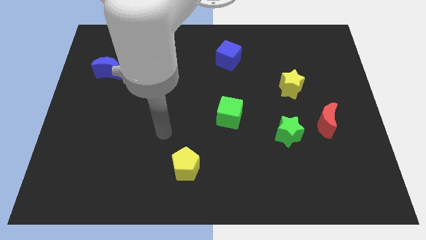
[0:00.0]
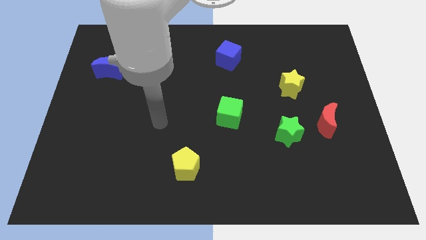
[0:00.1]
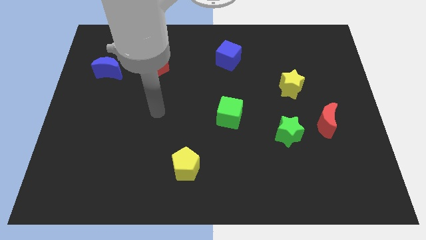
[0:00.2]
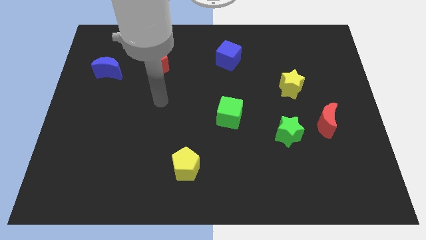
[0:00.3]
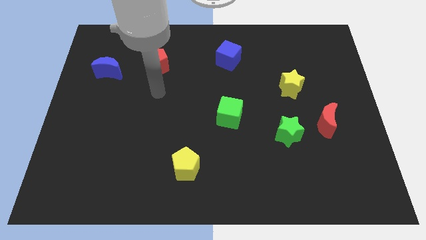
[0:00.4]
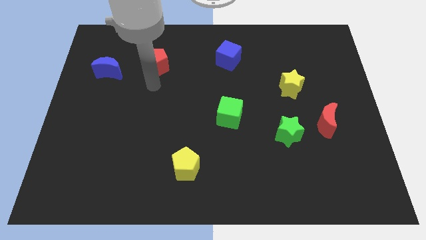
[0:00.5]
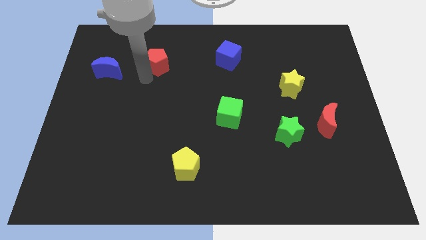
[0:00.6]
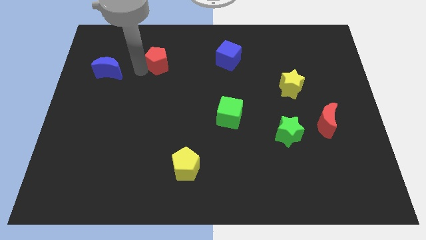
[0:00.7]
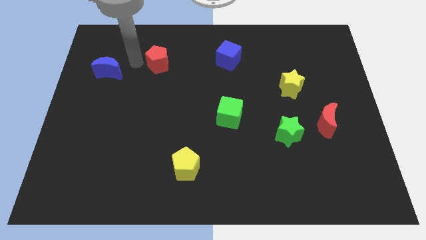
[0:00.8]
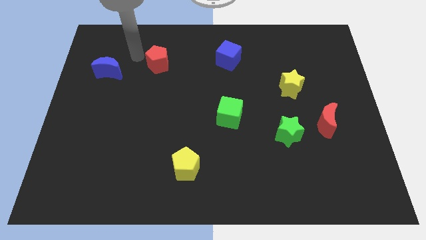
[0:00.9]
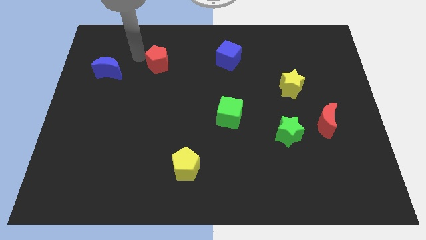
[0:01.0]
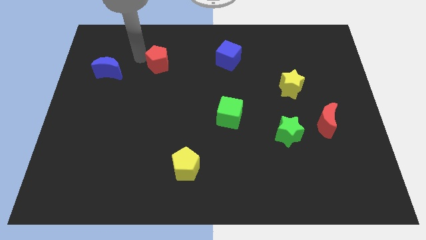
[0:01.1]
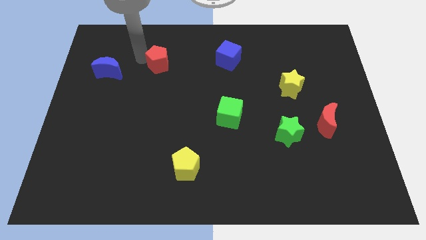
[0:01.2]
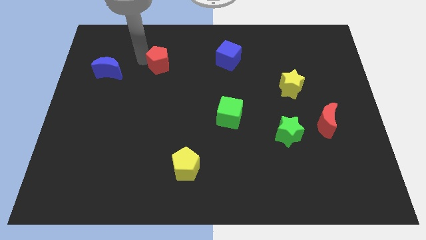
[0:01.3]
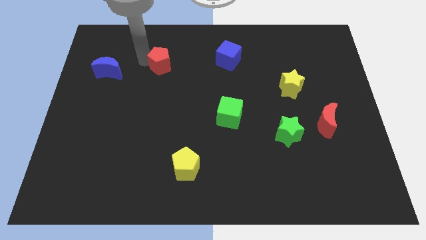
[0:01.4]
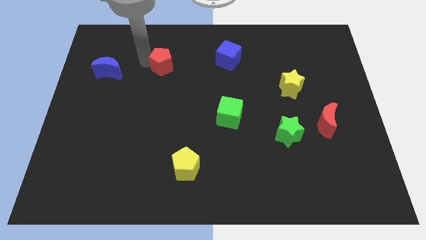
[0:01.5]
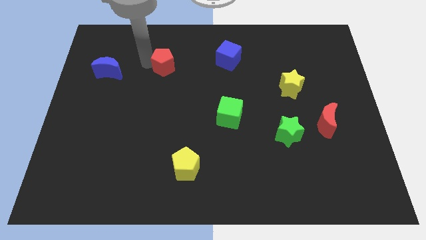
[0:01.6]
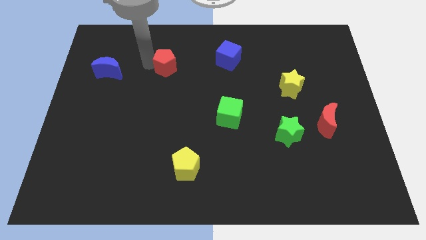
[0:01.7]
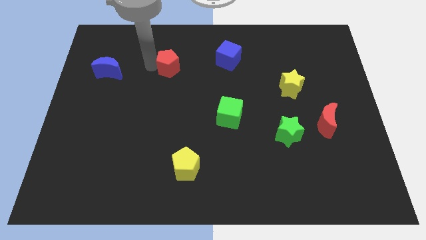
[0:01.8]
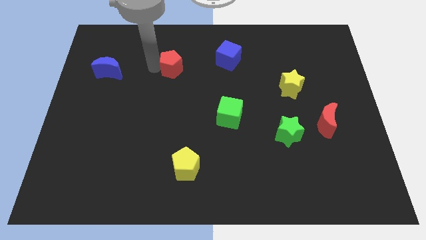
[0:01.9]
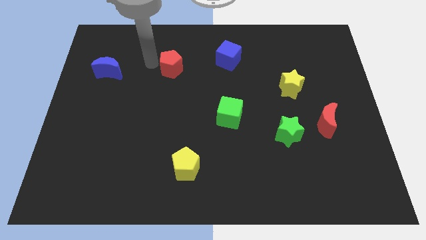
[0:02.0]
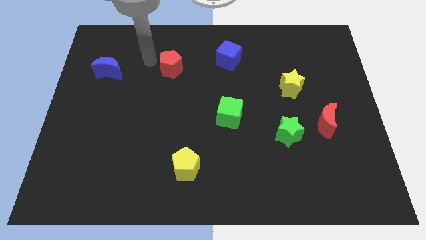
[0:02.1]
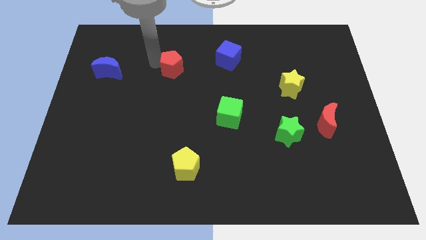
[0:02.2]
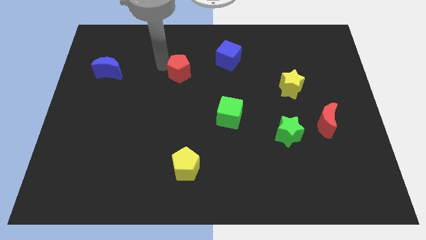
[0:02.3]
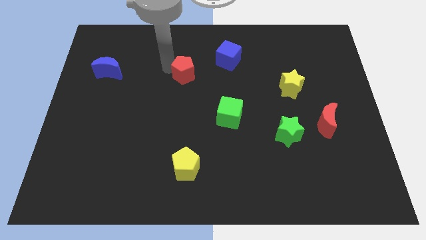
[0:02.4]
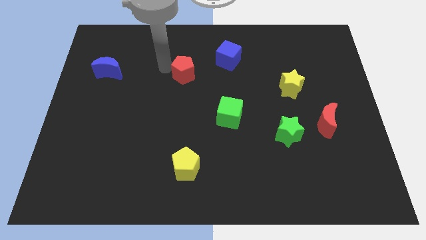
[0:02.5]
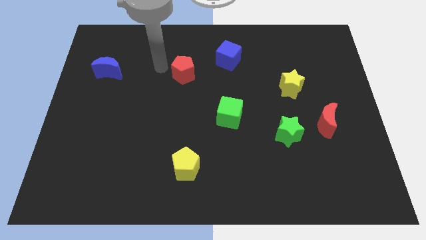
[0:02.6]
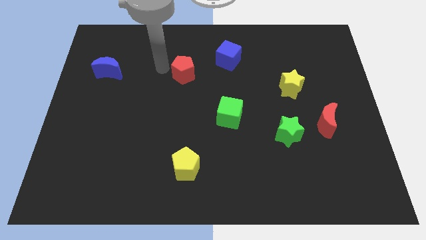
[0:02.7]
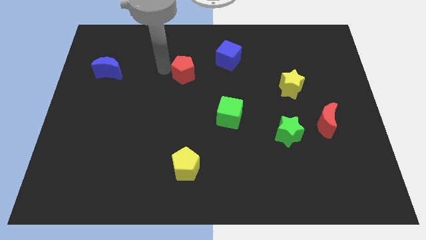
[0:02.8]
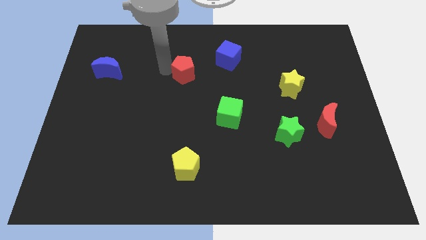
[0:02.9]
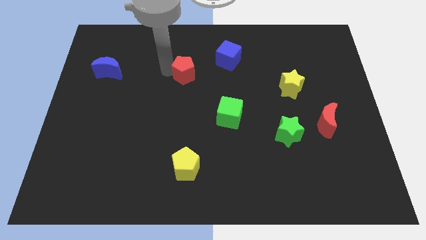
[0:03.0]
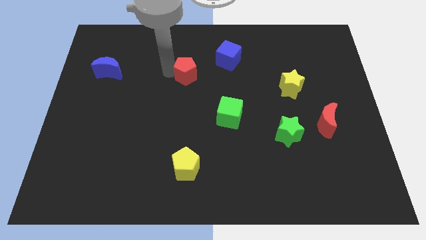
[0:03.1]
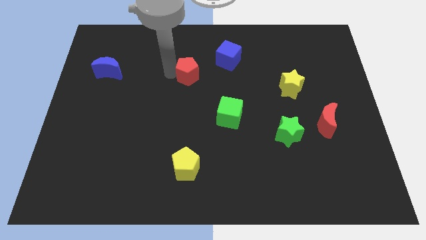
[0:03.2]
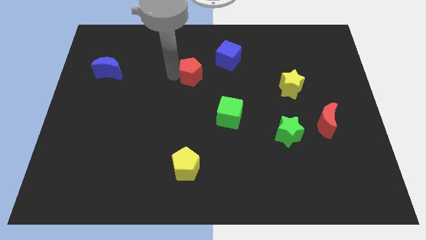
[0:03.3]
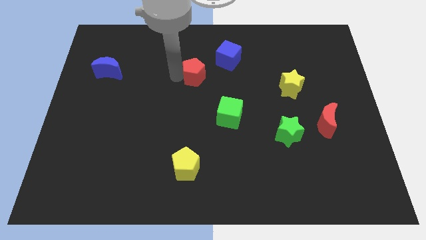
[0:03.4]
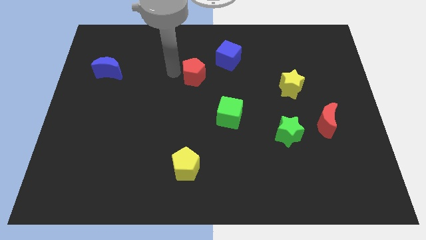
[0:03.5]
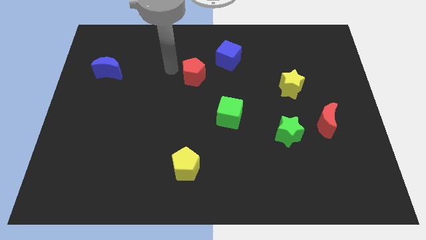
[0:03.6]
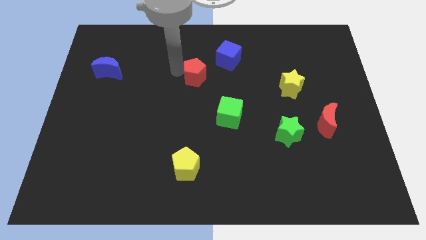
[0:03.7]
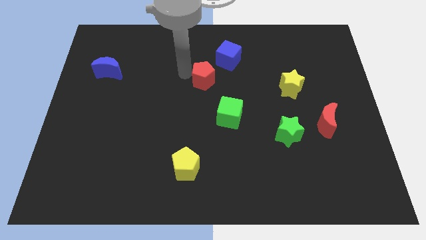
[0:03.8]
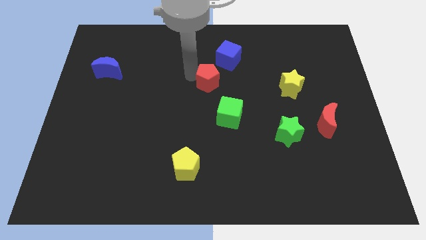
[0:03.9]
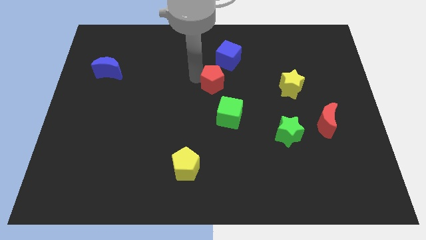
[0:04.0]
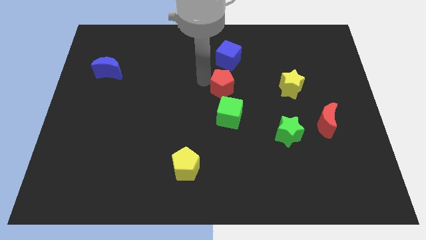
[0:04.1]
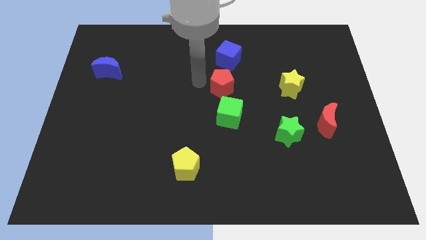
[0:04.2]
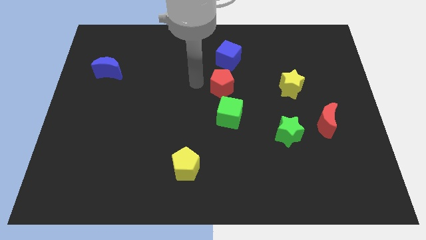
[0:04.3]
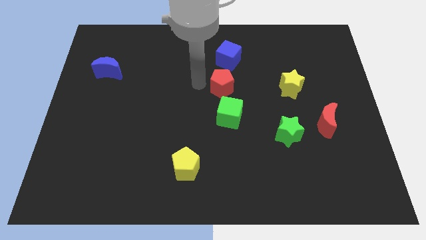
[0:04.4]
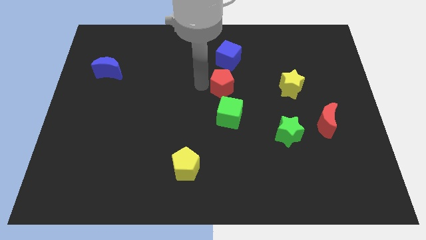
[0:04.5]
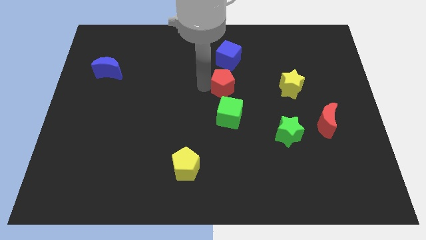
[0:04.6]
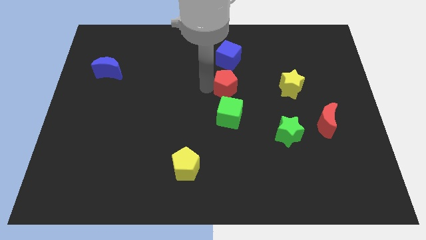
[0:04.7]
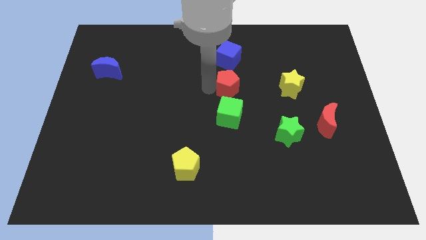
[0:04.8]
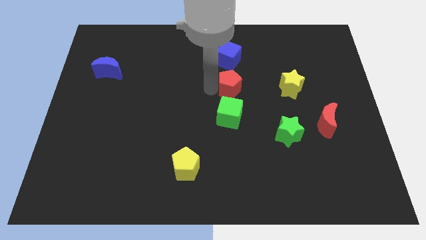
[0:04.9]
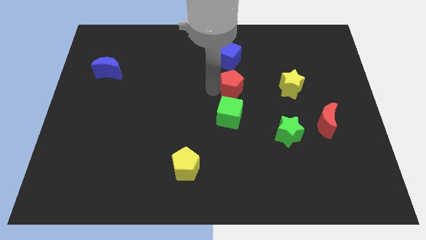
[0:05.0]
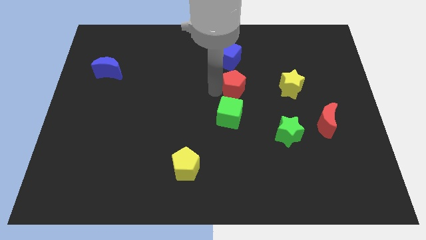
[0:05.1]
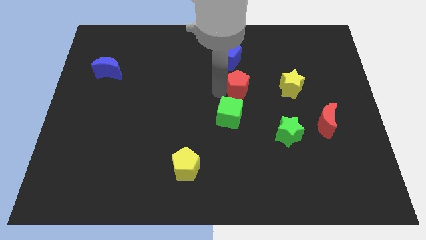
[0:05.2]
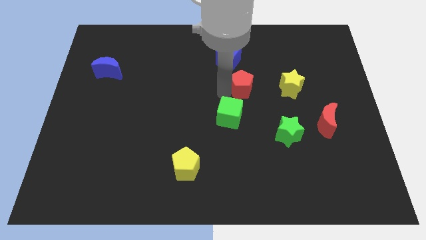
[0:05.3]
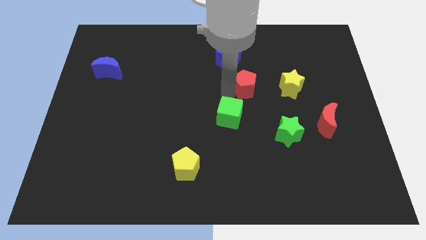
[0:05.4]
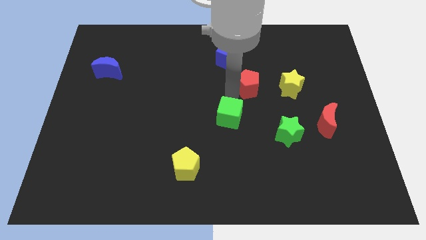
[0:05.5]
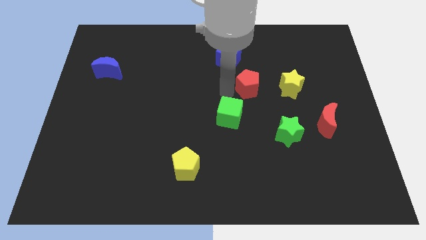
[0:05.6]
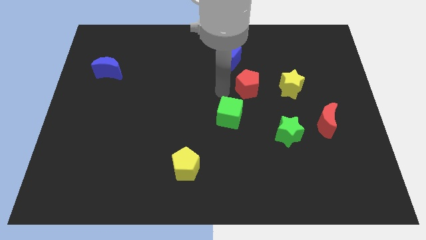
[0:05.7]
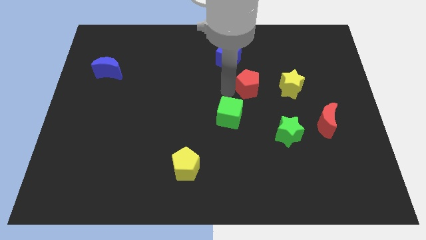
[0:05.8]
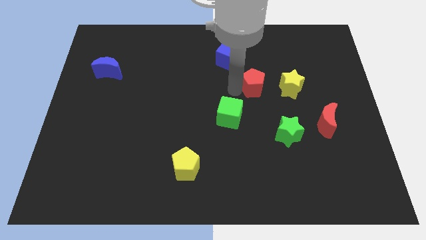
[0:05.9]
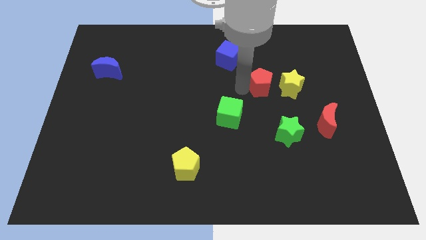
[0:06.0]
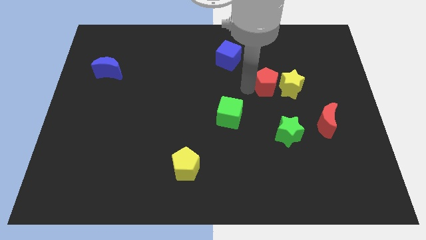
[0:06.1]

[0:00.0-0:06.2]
slide the red pentagon next to the yellow star

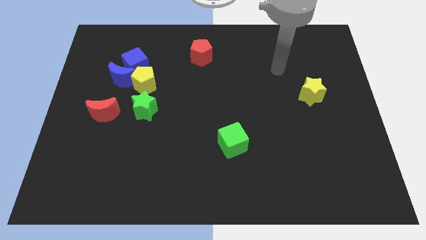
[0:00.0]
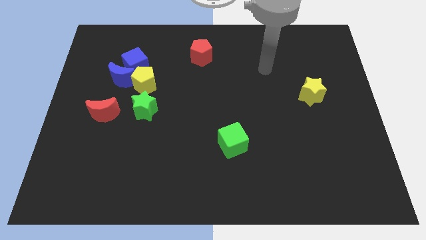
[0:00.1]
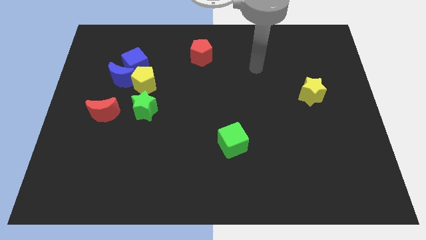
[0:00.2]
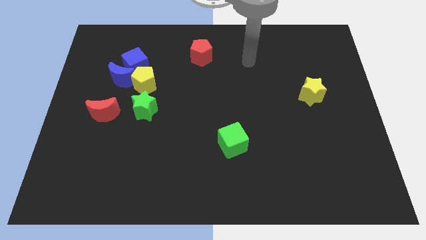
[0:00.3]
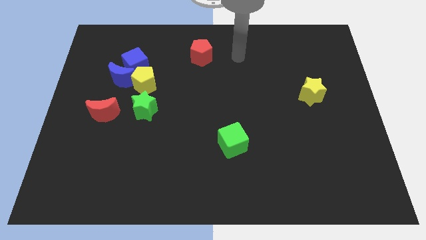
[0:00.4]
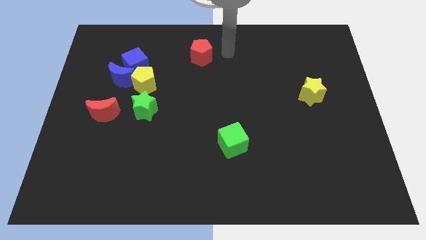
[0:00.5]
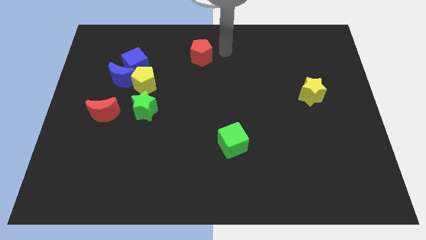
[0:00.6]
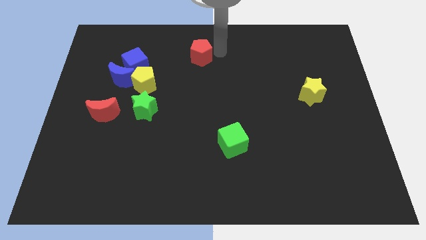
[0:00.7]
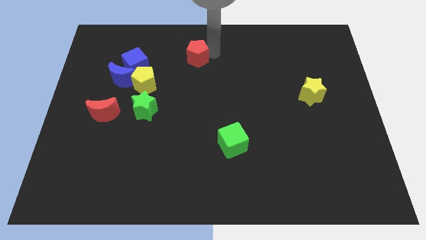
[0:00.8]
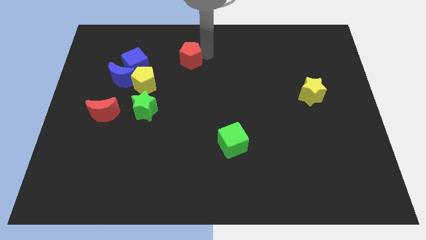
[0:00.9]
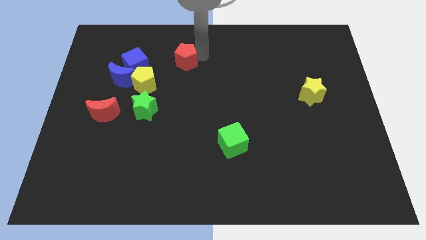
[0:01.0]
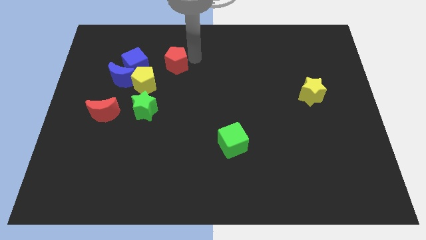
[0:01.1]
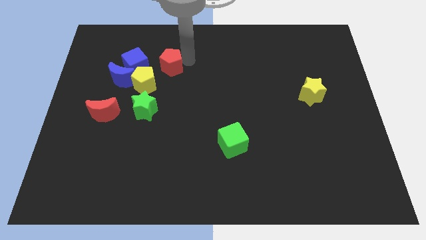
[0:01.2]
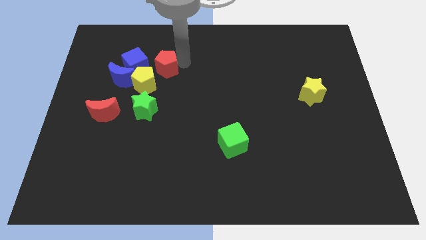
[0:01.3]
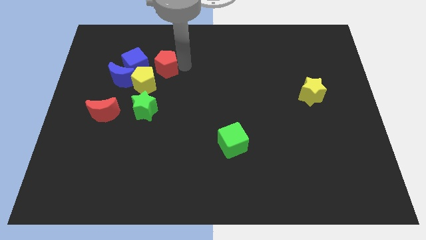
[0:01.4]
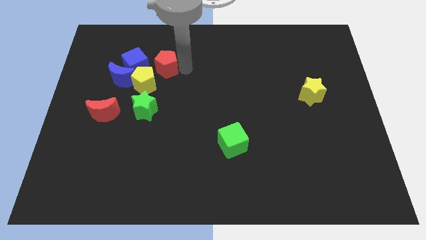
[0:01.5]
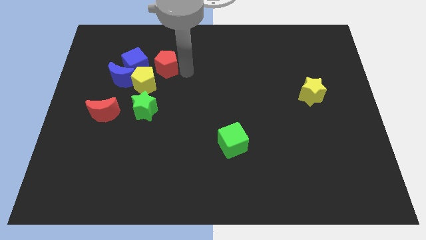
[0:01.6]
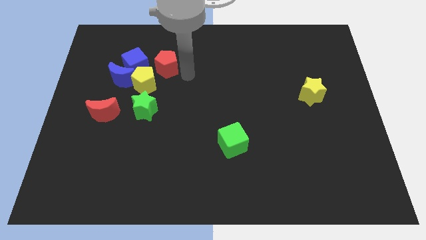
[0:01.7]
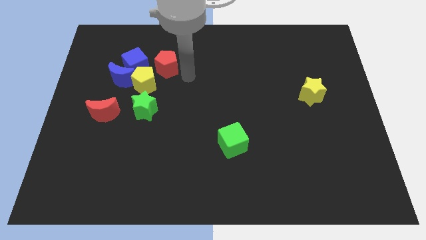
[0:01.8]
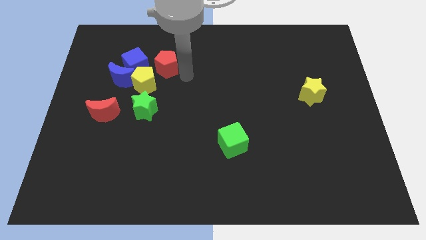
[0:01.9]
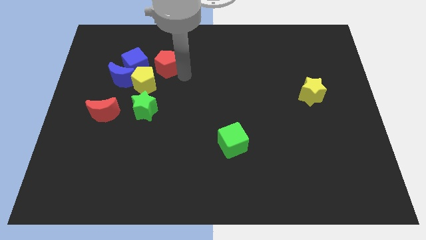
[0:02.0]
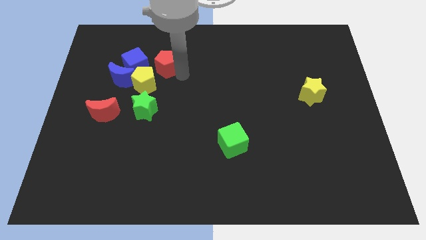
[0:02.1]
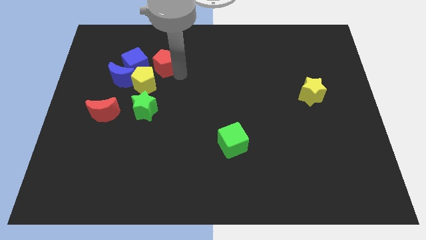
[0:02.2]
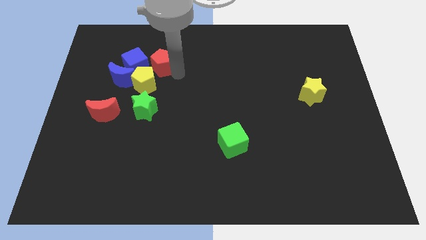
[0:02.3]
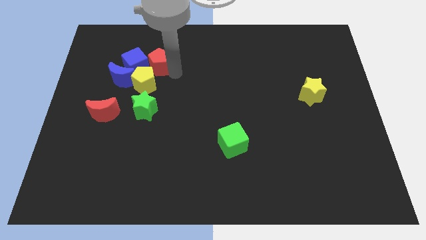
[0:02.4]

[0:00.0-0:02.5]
push the red pentagon next to the blue cube
